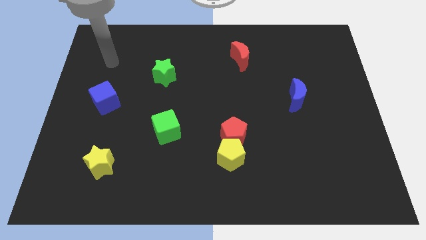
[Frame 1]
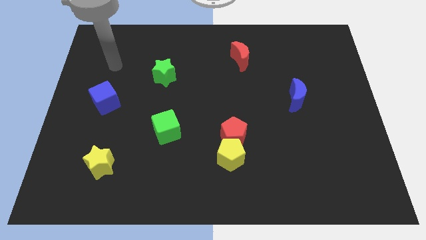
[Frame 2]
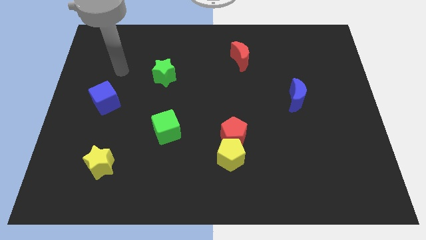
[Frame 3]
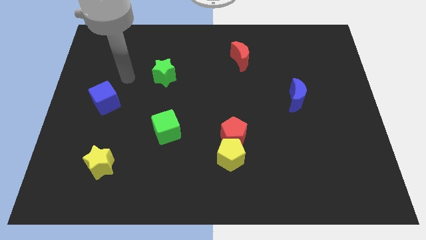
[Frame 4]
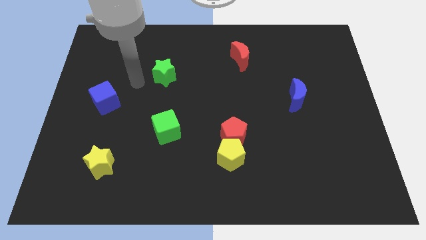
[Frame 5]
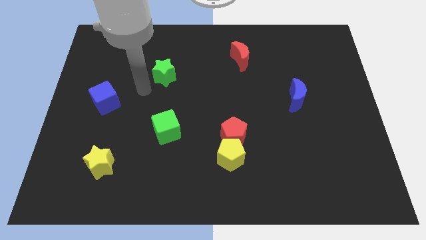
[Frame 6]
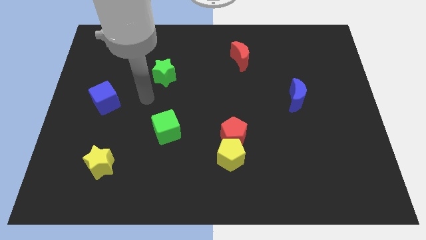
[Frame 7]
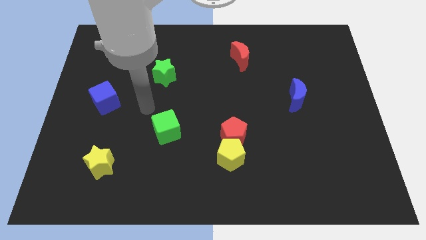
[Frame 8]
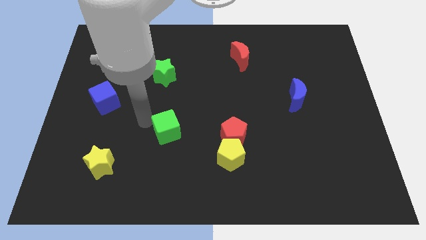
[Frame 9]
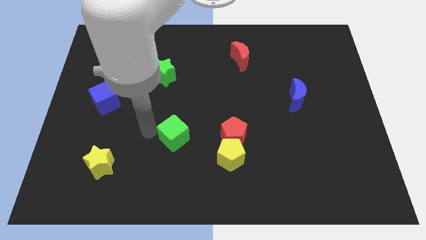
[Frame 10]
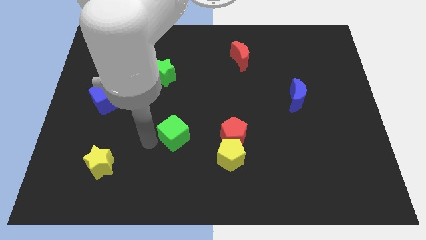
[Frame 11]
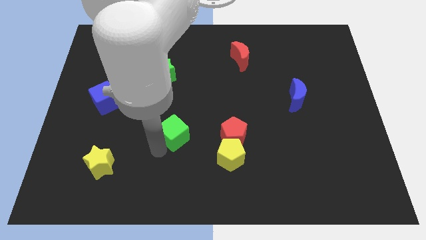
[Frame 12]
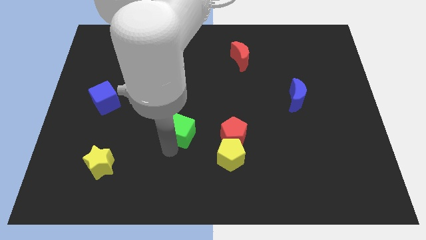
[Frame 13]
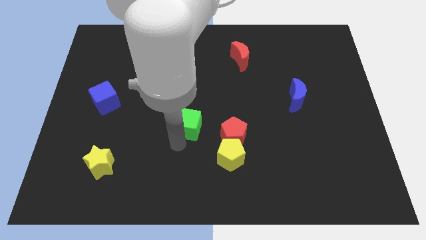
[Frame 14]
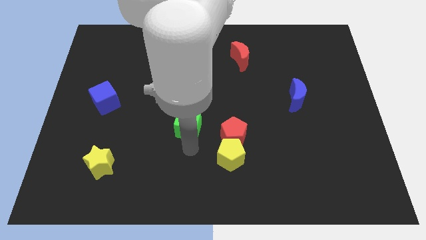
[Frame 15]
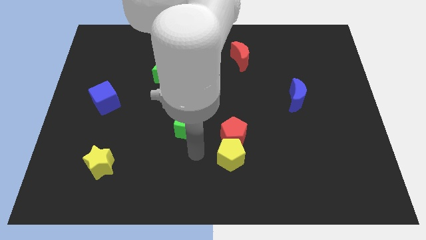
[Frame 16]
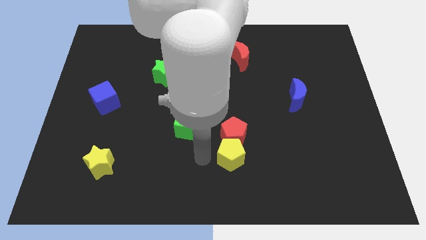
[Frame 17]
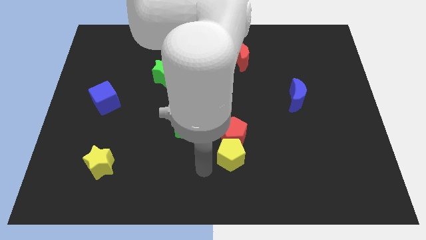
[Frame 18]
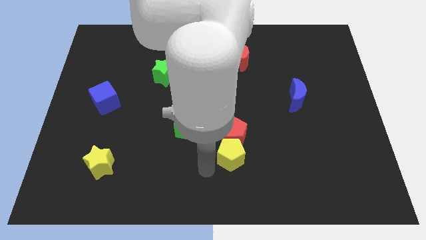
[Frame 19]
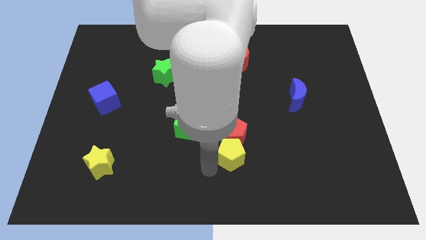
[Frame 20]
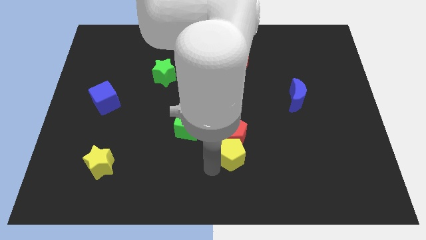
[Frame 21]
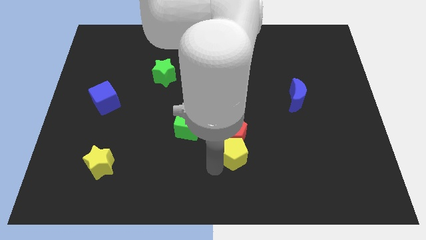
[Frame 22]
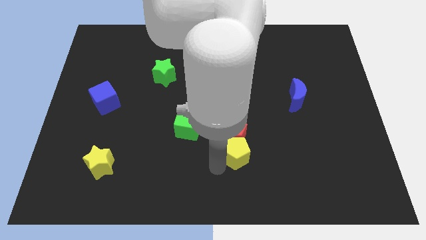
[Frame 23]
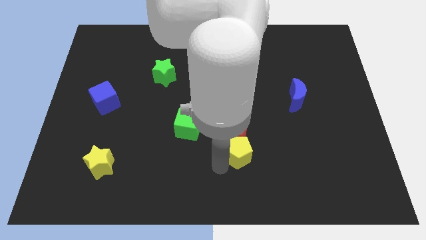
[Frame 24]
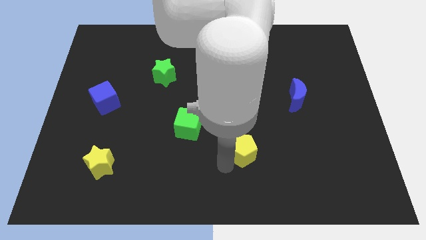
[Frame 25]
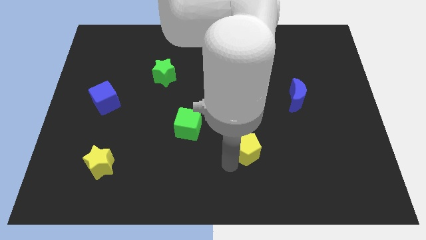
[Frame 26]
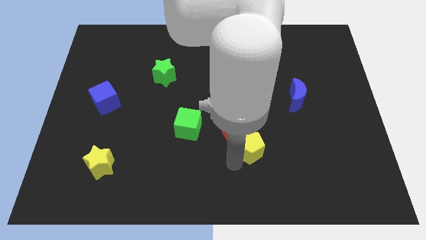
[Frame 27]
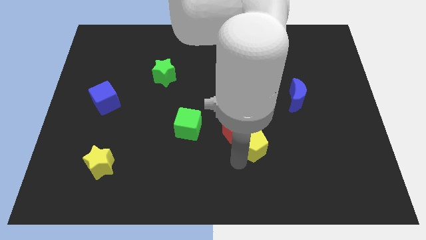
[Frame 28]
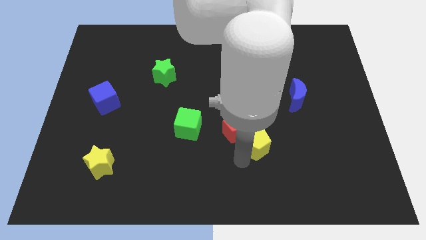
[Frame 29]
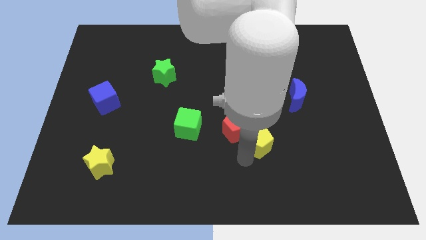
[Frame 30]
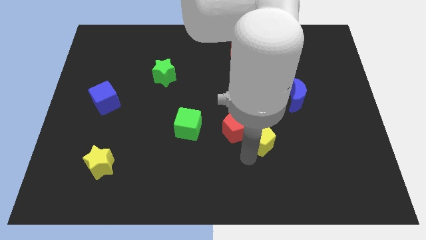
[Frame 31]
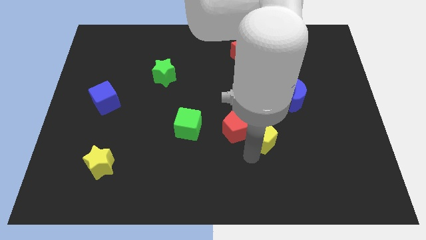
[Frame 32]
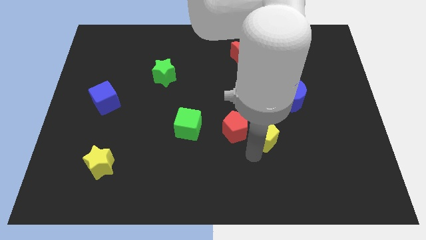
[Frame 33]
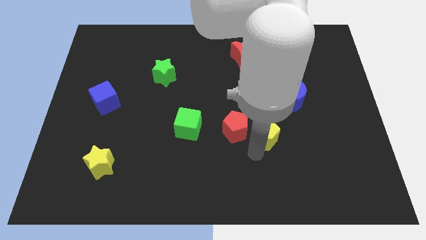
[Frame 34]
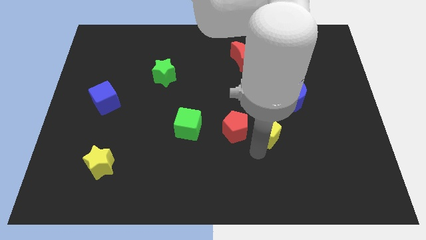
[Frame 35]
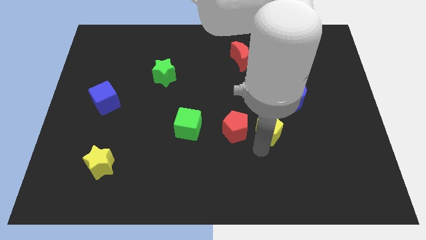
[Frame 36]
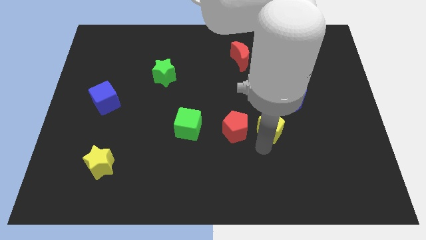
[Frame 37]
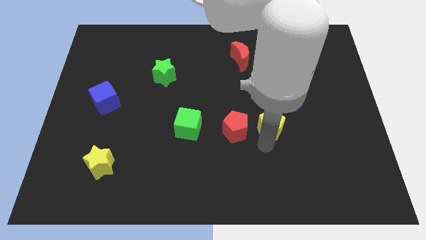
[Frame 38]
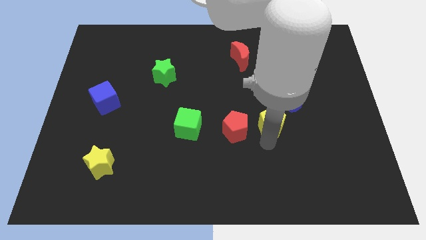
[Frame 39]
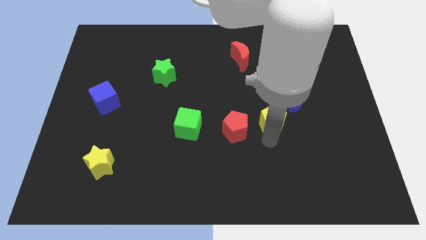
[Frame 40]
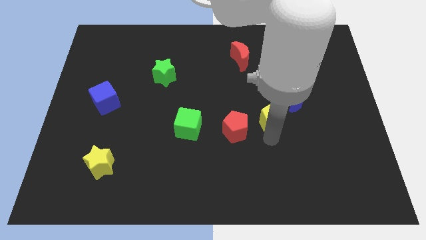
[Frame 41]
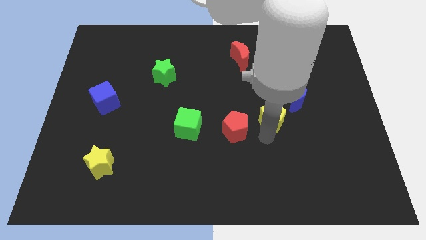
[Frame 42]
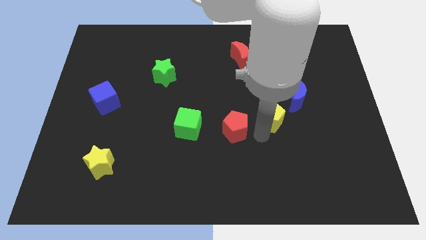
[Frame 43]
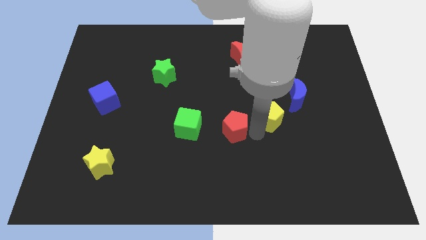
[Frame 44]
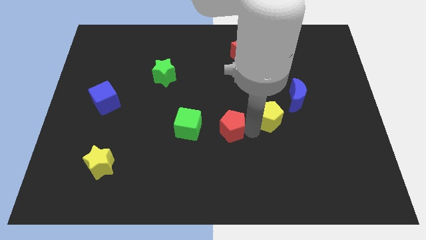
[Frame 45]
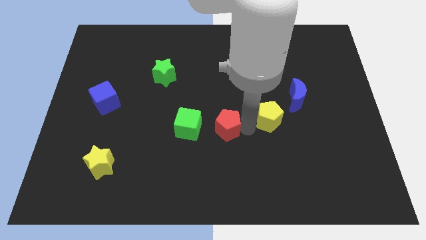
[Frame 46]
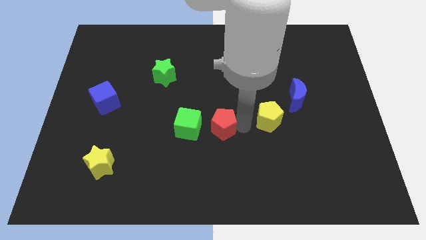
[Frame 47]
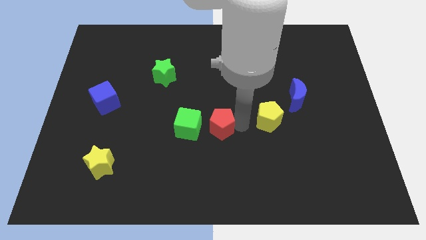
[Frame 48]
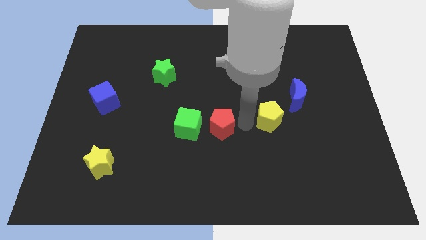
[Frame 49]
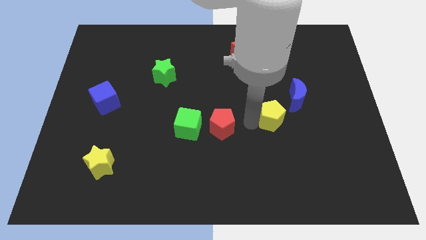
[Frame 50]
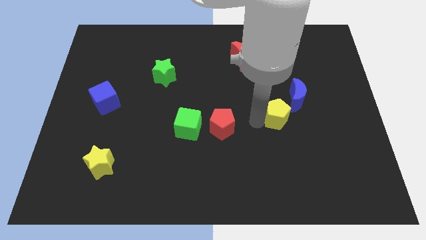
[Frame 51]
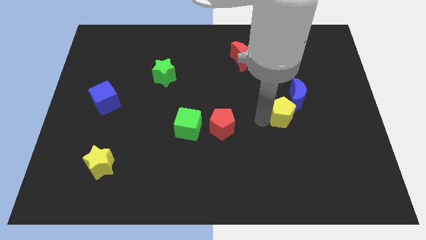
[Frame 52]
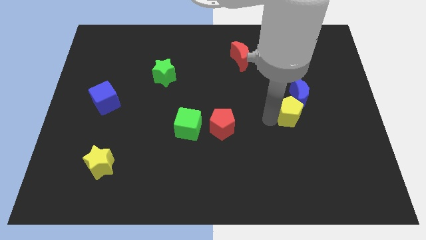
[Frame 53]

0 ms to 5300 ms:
put the yellow pentagon towards the blue moon

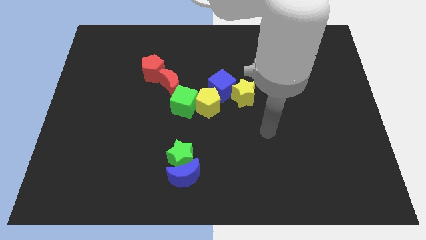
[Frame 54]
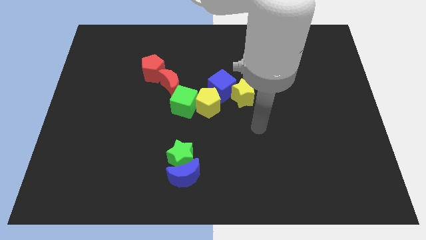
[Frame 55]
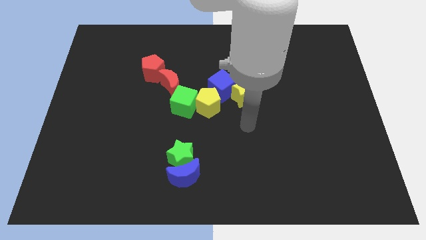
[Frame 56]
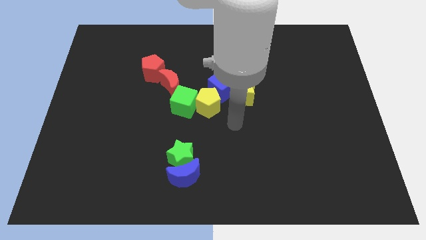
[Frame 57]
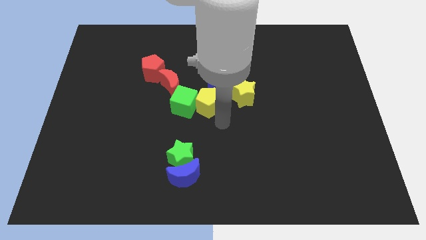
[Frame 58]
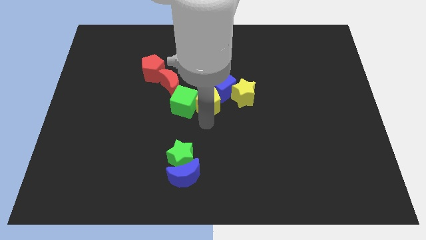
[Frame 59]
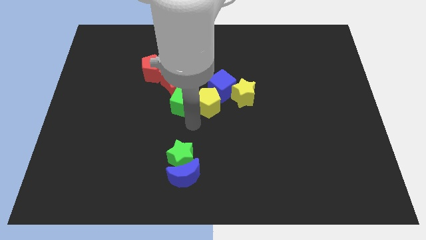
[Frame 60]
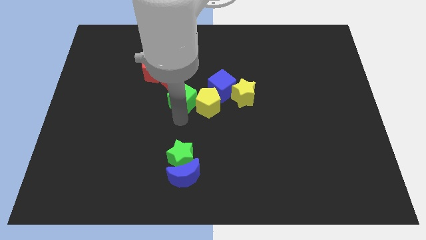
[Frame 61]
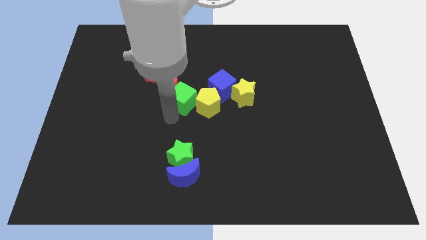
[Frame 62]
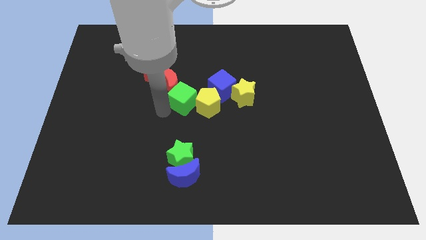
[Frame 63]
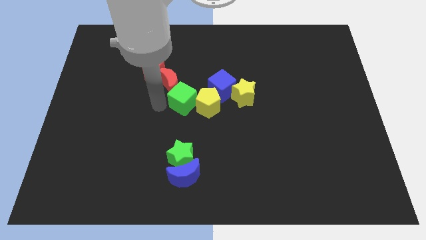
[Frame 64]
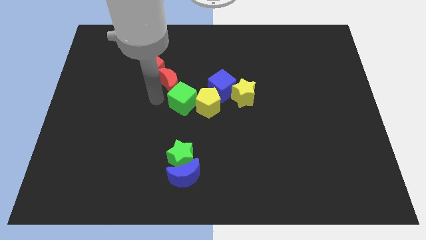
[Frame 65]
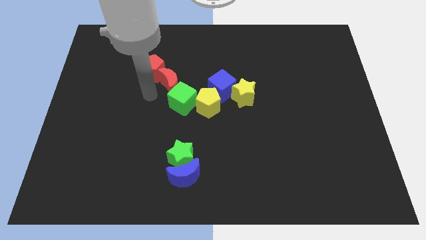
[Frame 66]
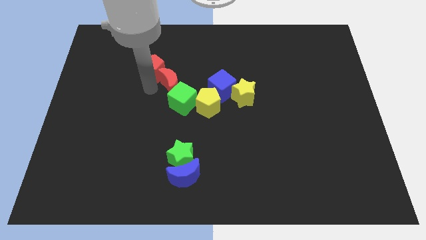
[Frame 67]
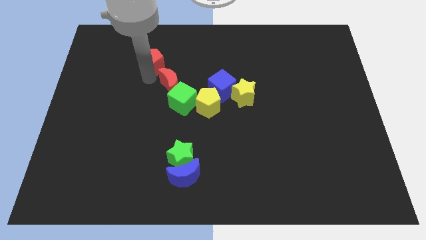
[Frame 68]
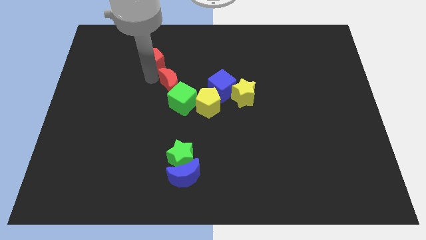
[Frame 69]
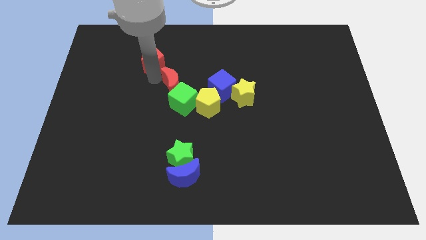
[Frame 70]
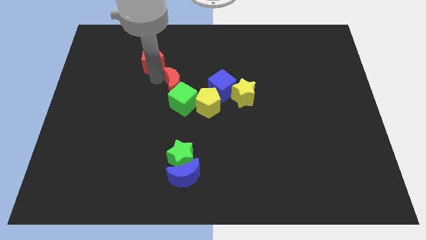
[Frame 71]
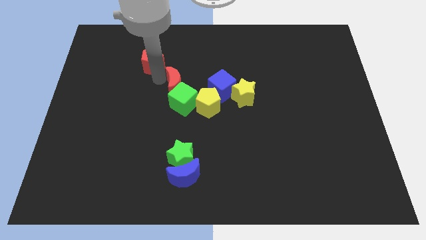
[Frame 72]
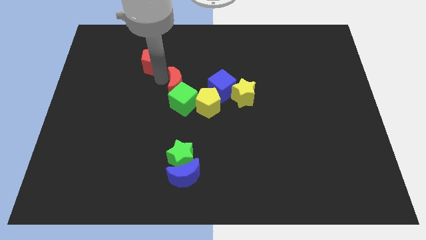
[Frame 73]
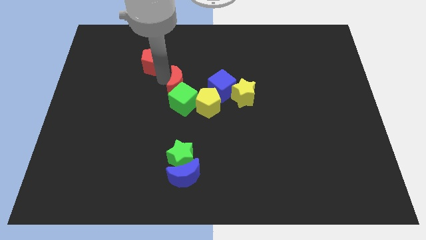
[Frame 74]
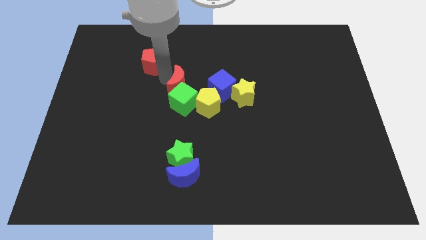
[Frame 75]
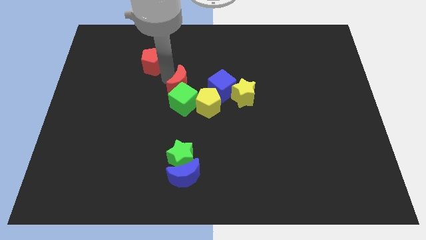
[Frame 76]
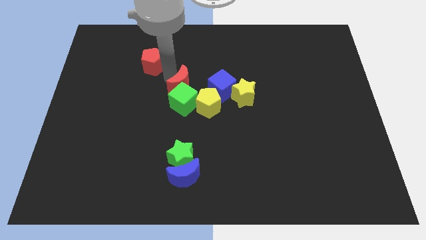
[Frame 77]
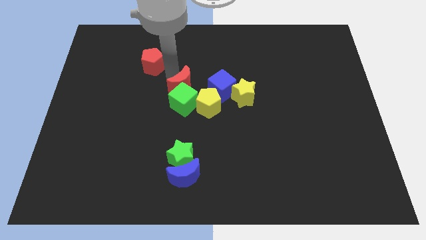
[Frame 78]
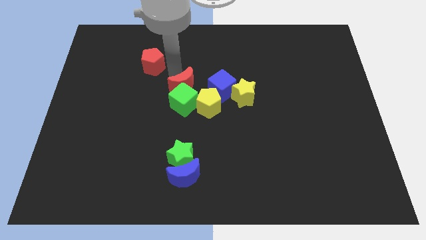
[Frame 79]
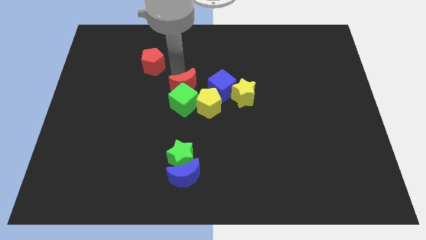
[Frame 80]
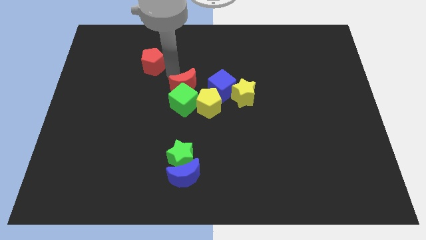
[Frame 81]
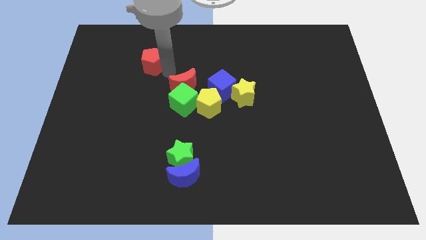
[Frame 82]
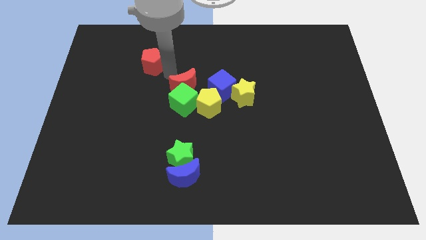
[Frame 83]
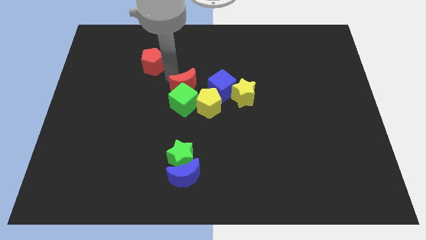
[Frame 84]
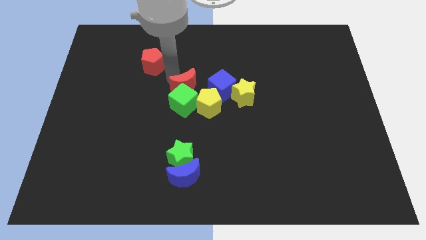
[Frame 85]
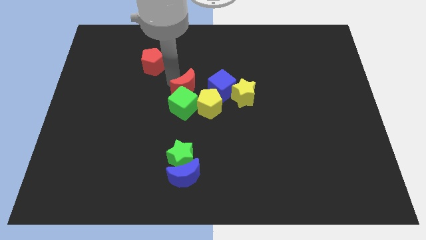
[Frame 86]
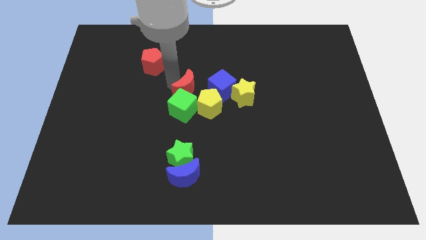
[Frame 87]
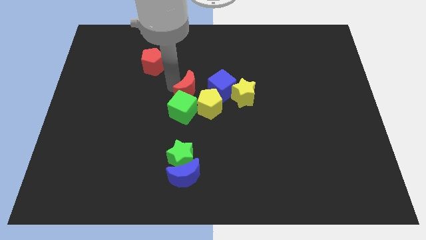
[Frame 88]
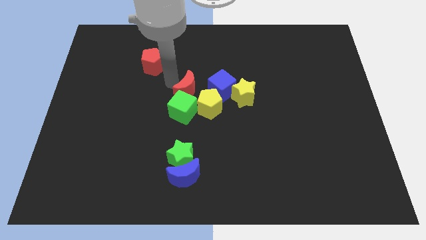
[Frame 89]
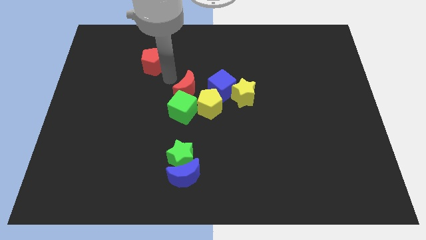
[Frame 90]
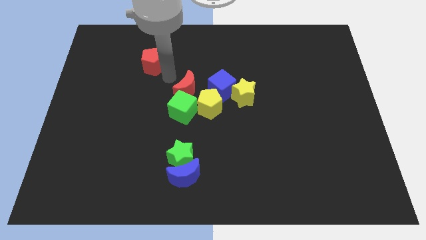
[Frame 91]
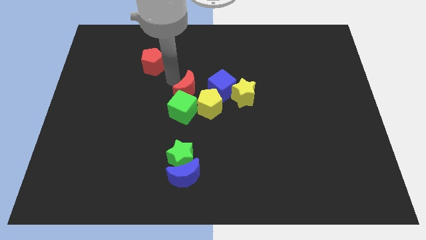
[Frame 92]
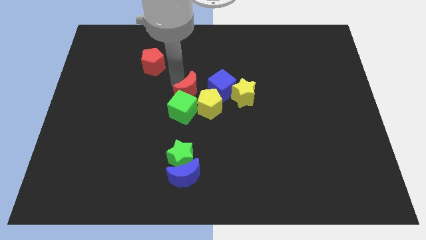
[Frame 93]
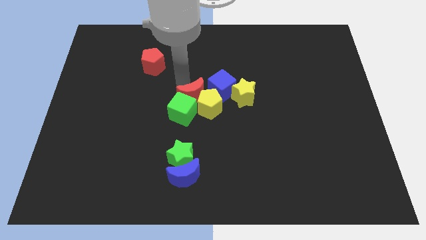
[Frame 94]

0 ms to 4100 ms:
move the red moon towards the yellow pentagon
